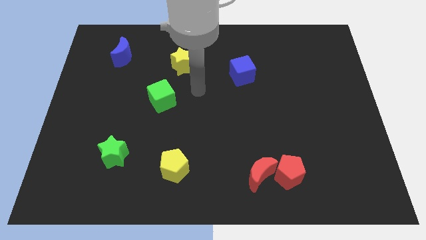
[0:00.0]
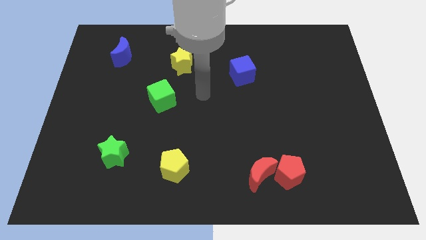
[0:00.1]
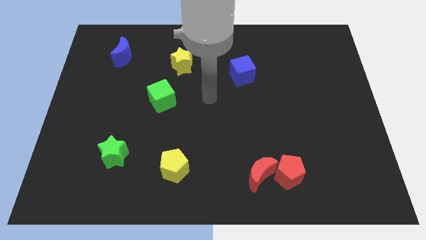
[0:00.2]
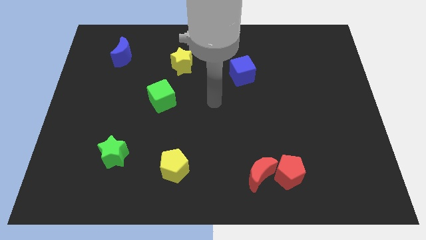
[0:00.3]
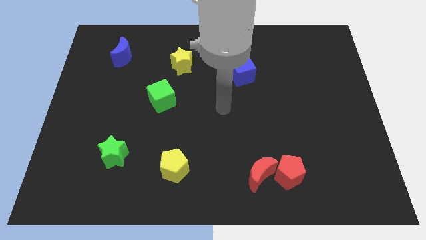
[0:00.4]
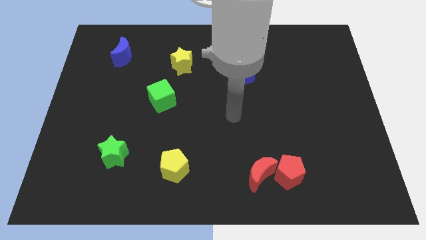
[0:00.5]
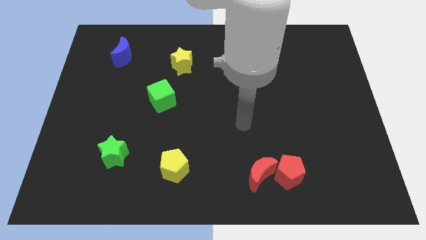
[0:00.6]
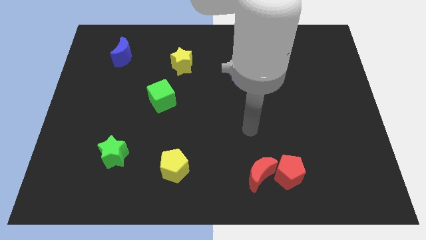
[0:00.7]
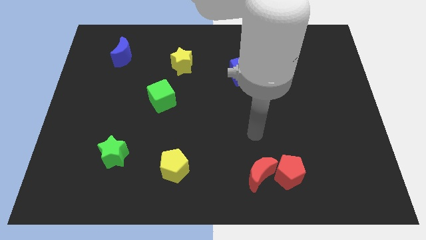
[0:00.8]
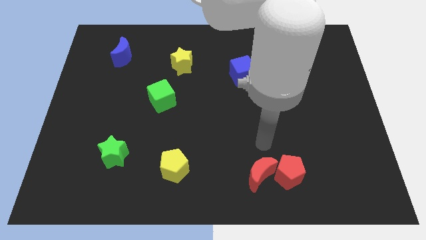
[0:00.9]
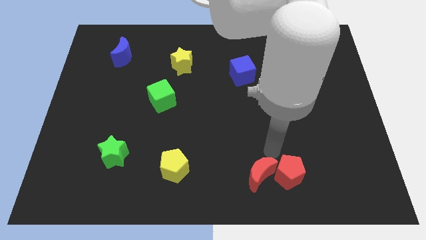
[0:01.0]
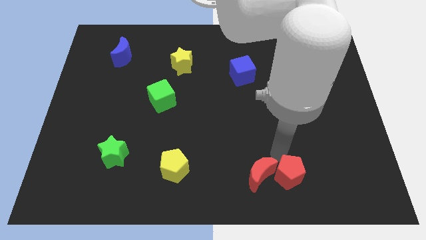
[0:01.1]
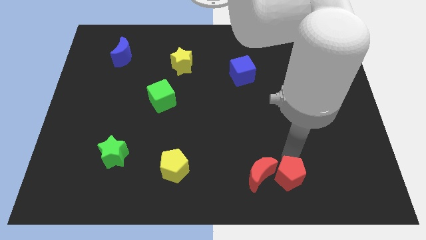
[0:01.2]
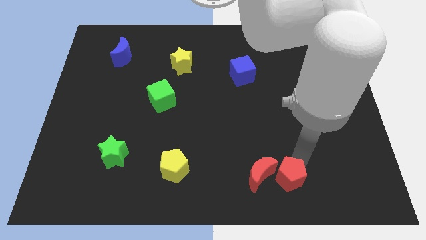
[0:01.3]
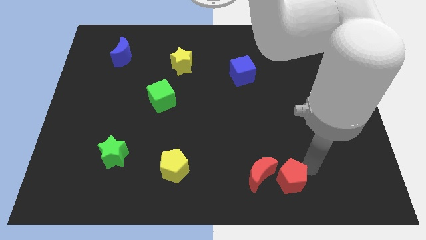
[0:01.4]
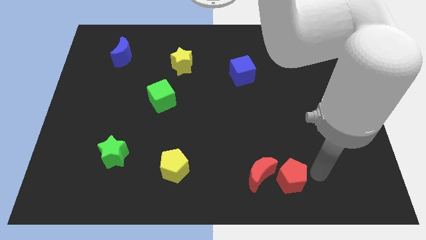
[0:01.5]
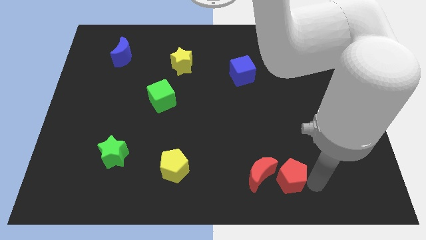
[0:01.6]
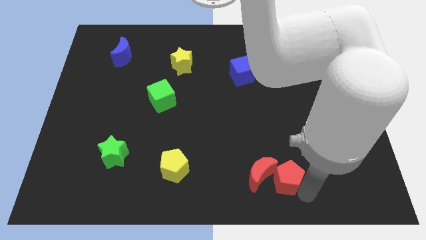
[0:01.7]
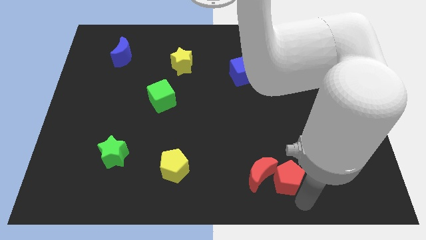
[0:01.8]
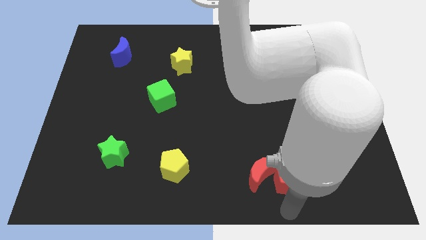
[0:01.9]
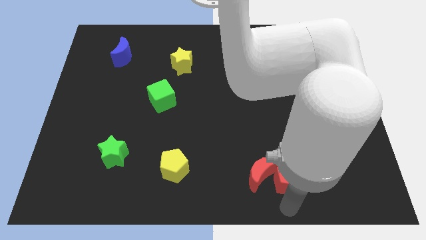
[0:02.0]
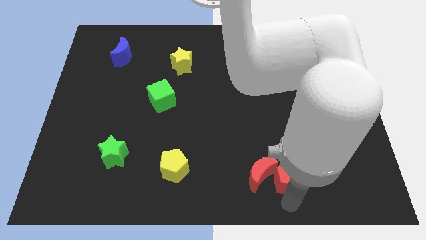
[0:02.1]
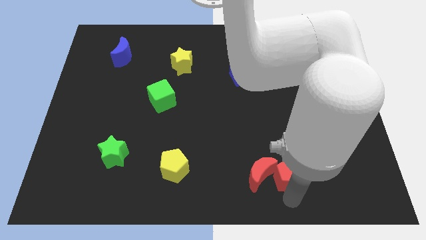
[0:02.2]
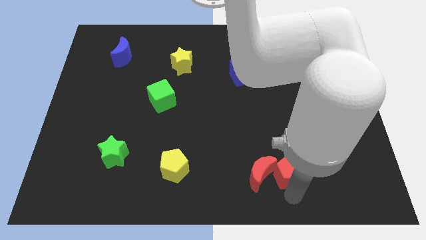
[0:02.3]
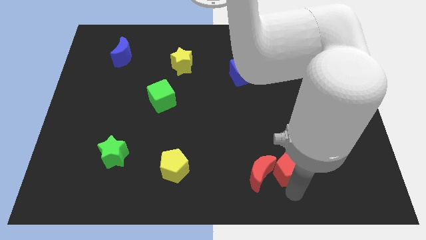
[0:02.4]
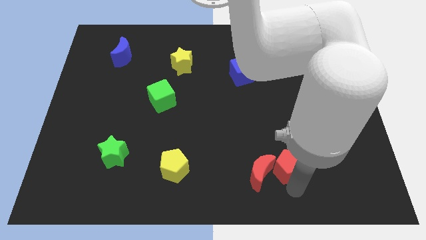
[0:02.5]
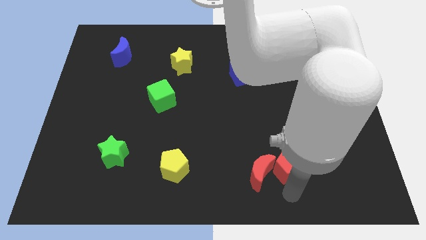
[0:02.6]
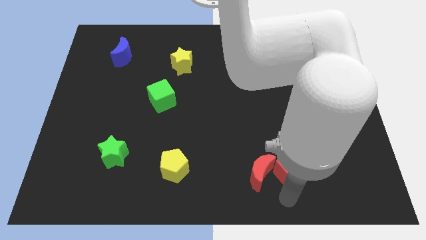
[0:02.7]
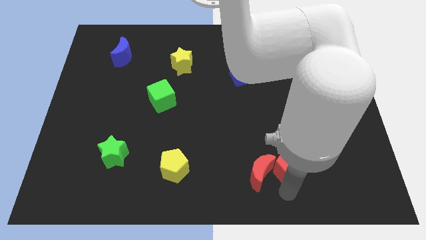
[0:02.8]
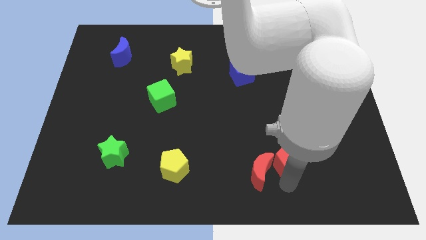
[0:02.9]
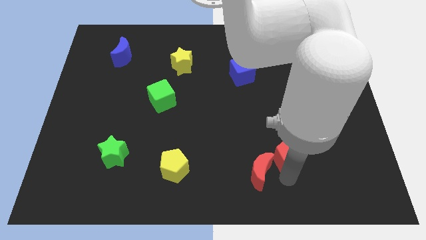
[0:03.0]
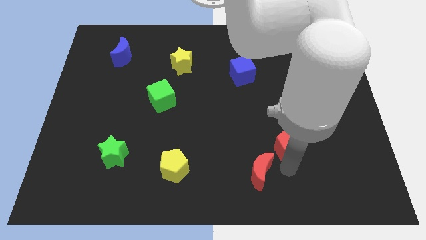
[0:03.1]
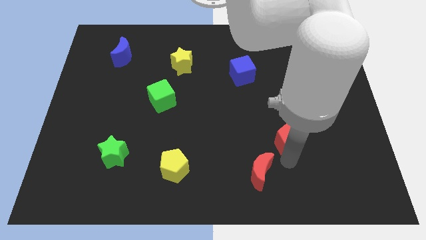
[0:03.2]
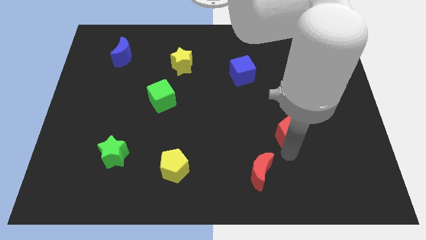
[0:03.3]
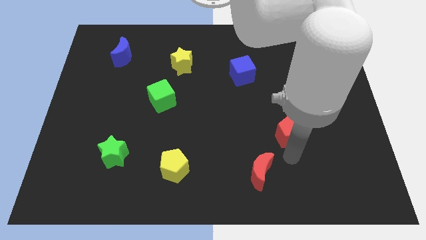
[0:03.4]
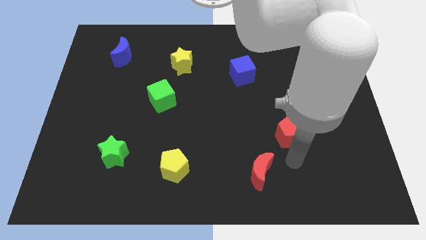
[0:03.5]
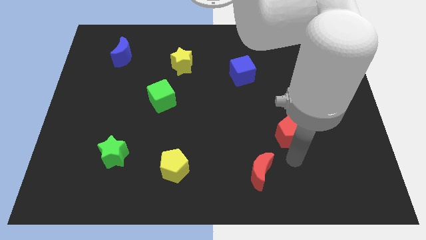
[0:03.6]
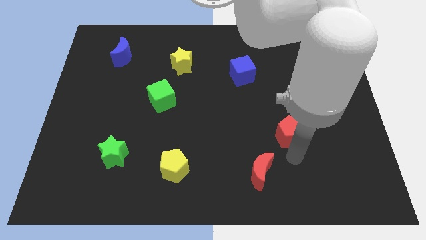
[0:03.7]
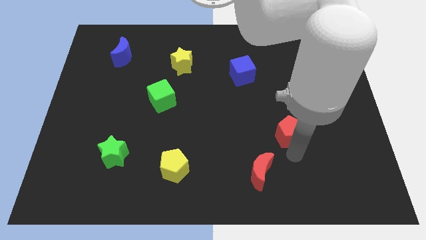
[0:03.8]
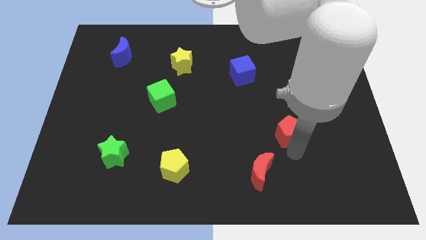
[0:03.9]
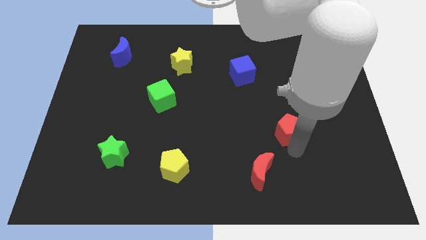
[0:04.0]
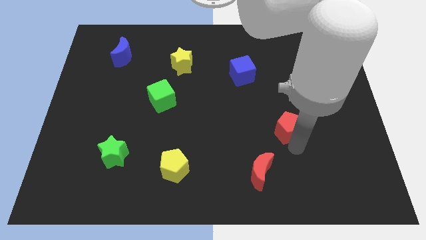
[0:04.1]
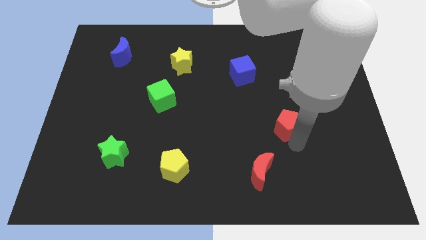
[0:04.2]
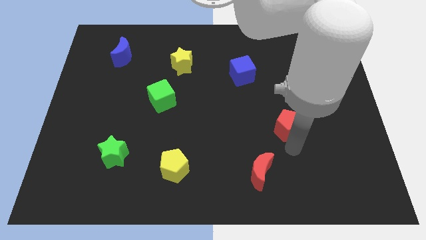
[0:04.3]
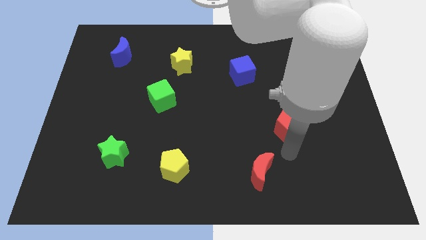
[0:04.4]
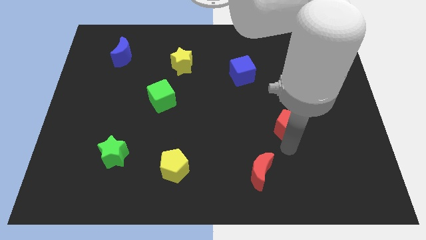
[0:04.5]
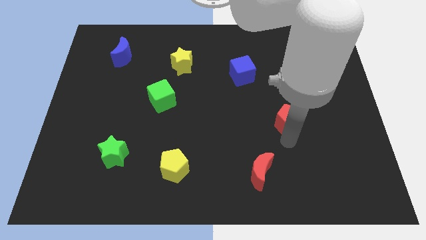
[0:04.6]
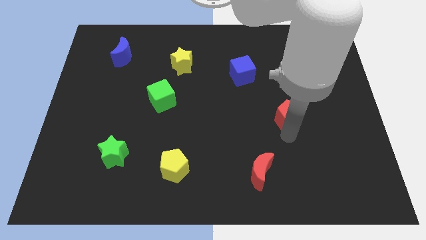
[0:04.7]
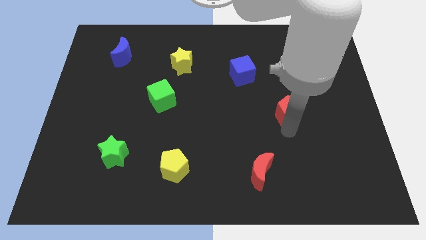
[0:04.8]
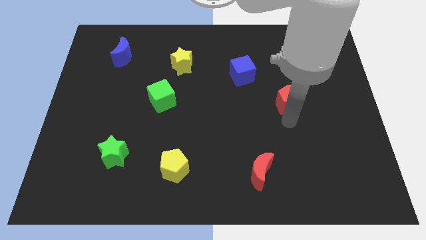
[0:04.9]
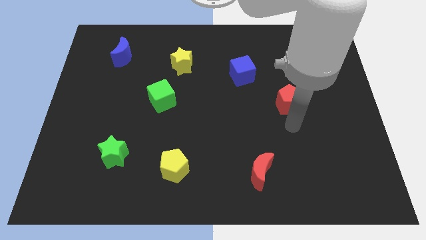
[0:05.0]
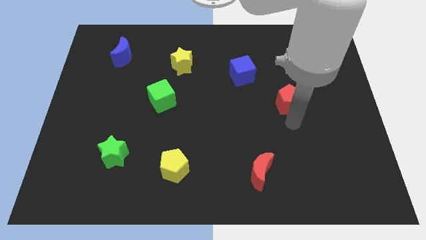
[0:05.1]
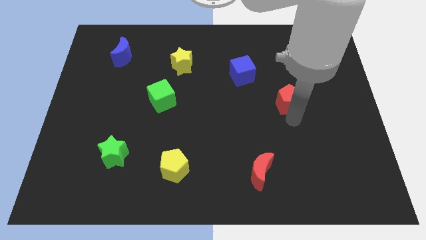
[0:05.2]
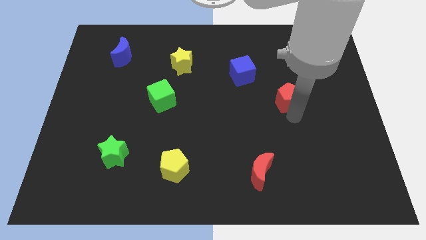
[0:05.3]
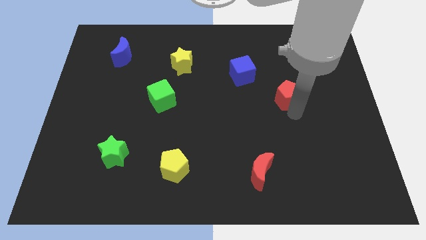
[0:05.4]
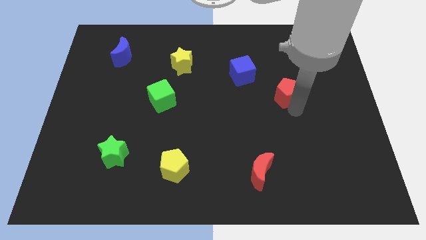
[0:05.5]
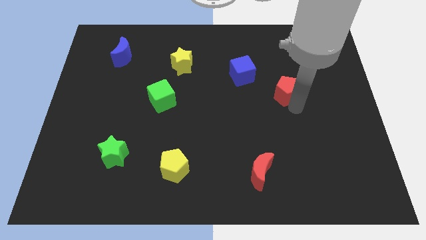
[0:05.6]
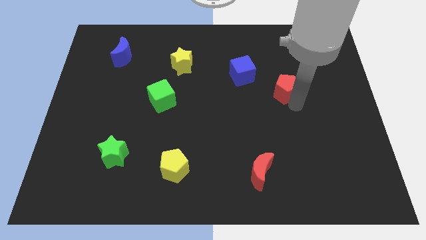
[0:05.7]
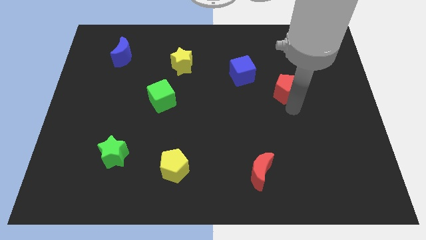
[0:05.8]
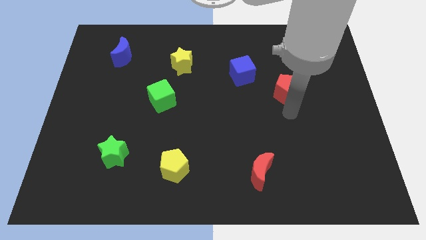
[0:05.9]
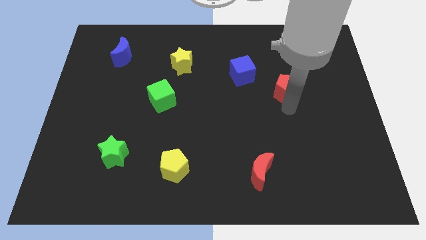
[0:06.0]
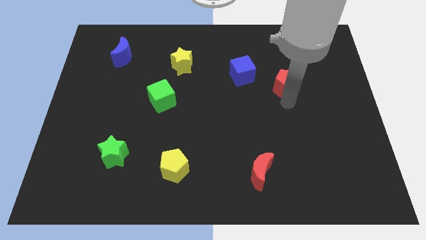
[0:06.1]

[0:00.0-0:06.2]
push the red pentagon to the right side of the blue cube
